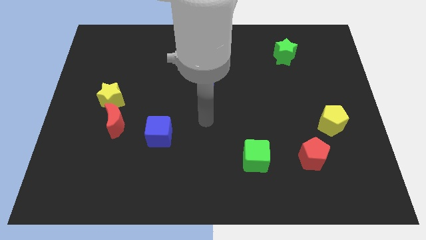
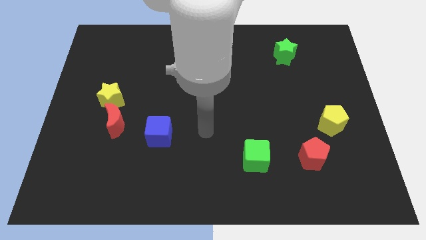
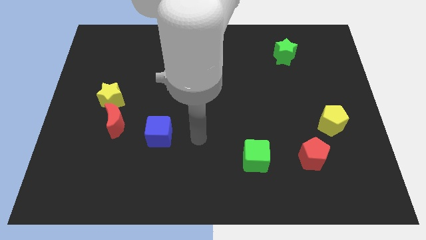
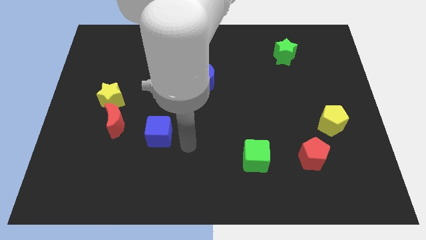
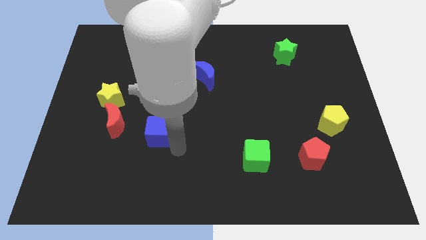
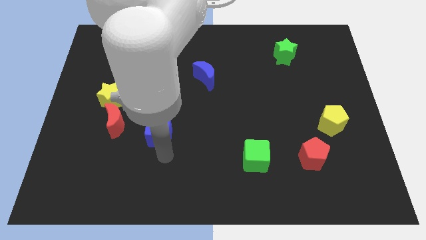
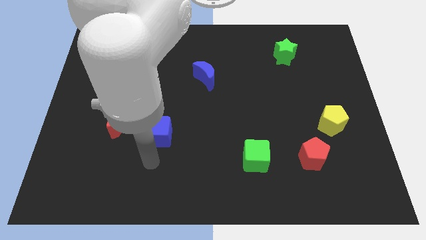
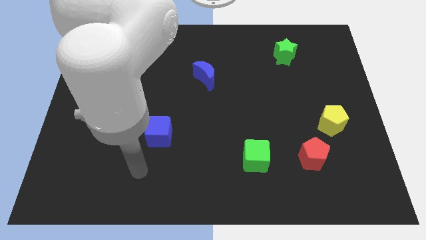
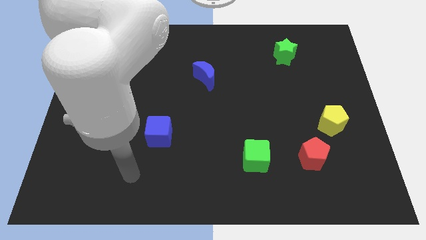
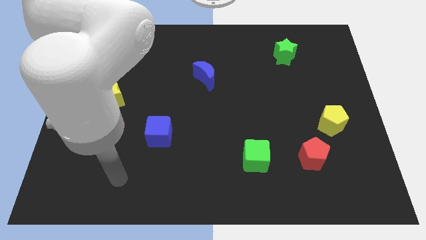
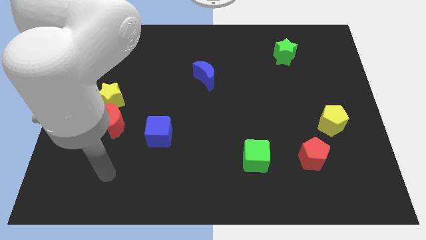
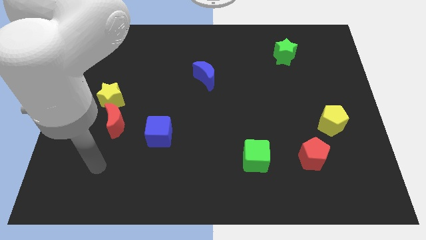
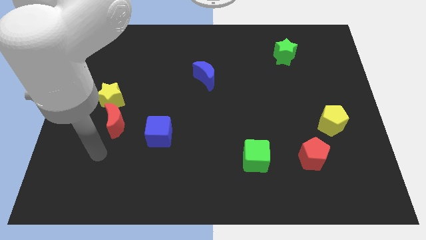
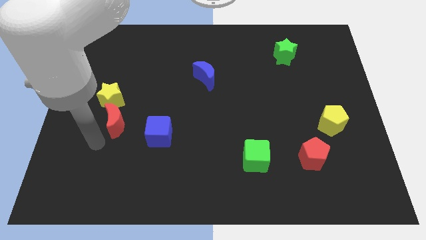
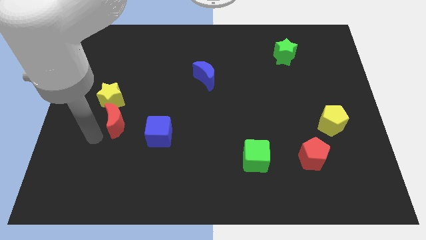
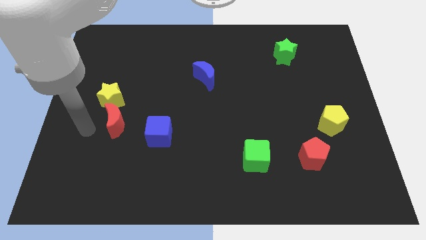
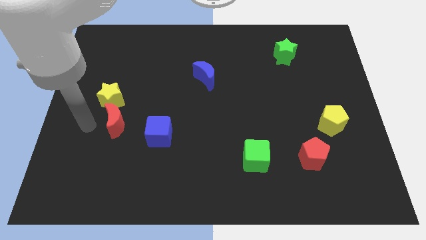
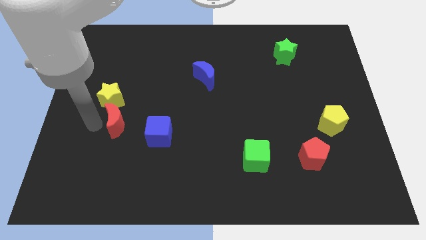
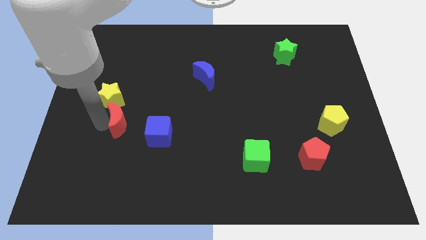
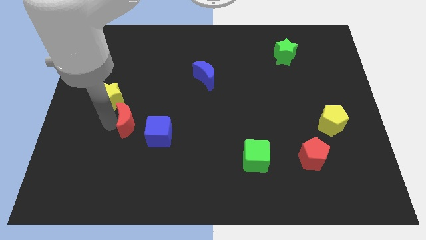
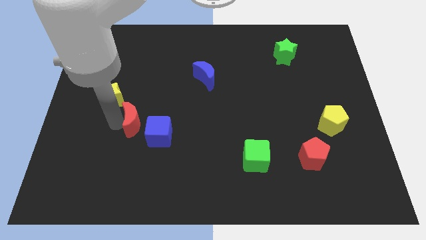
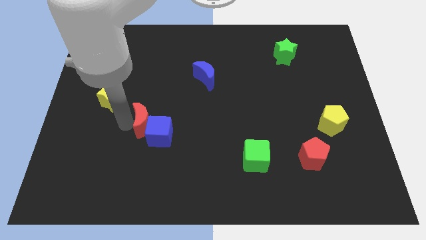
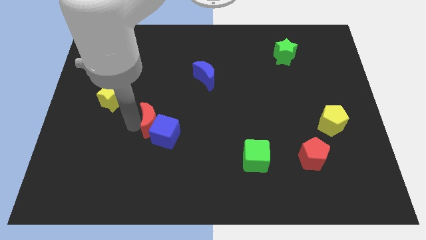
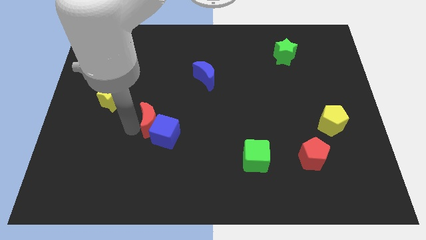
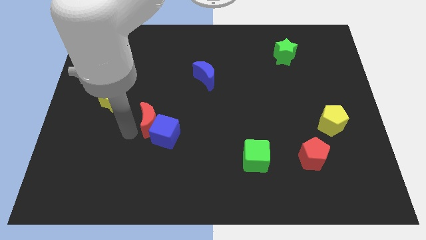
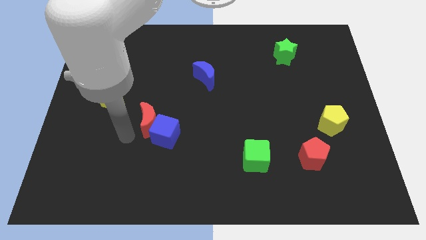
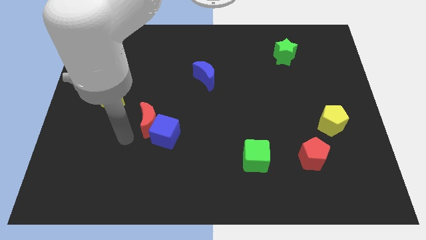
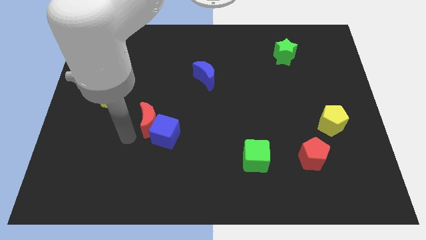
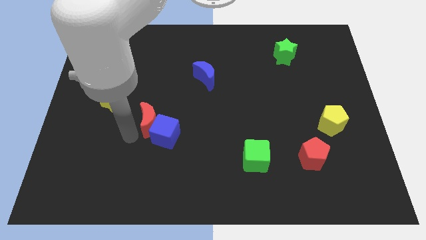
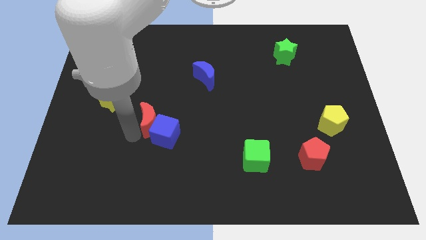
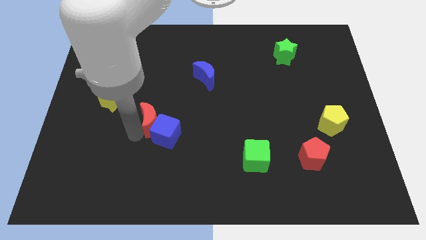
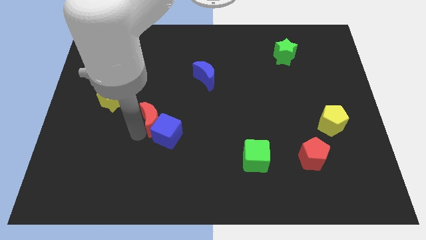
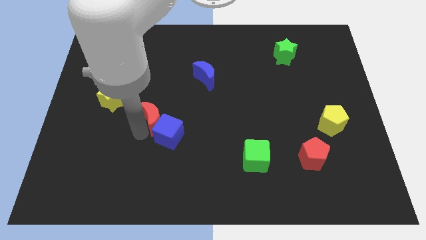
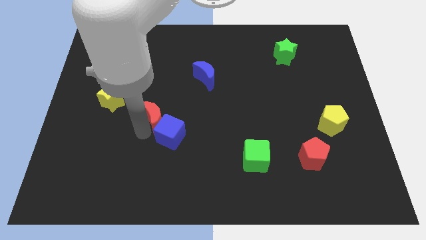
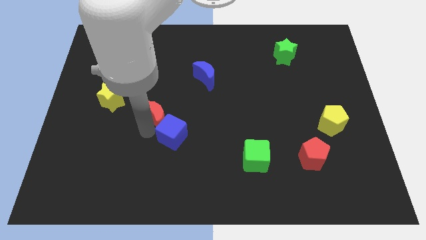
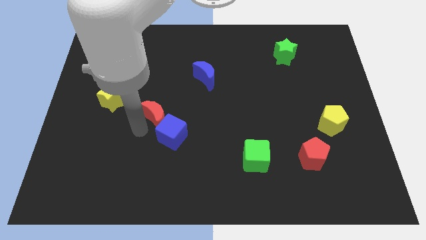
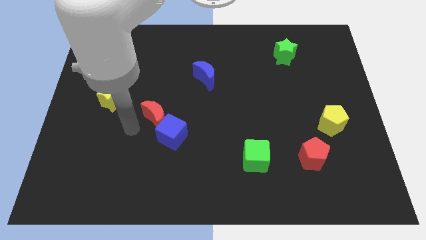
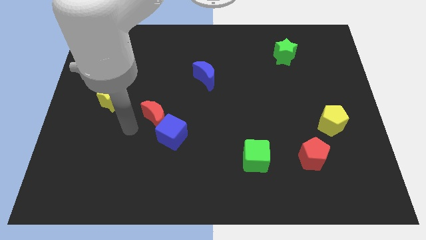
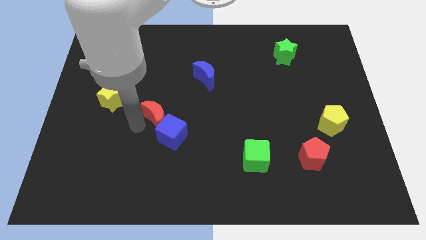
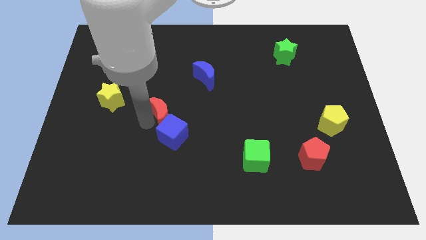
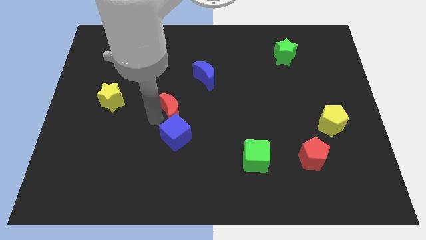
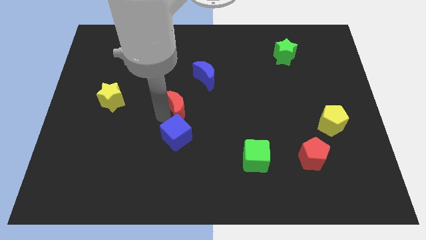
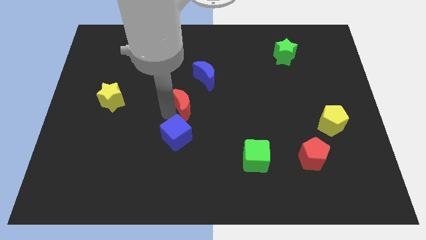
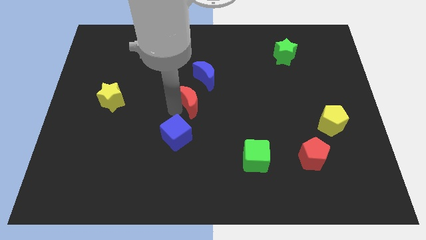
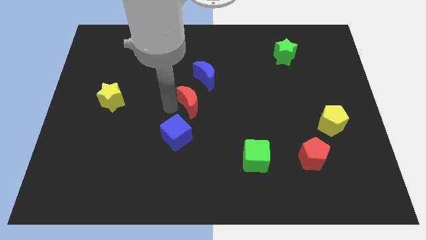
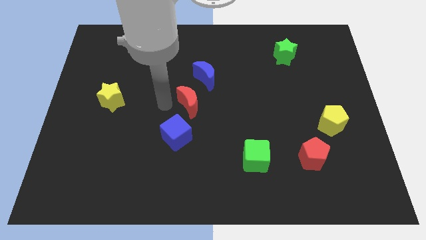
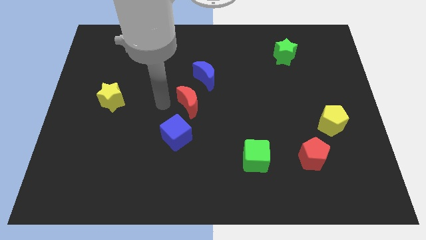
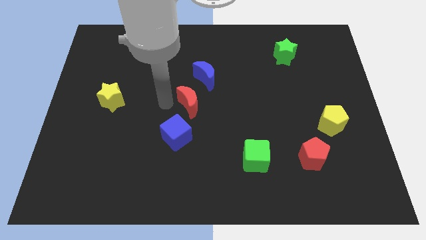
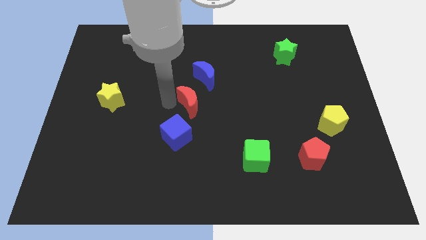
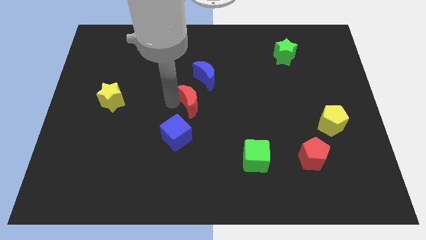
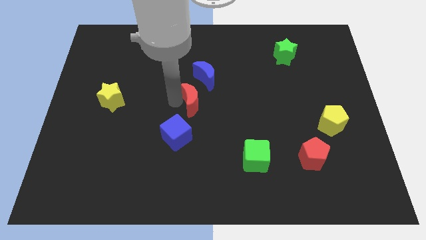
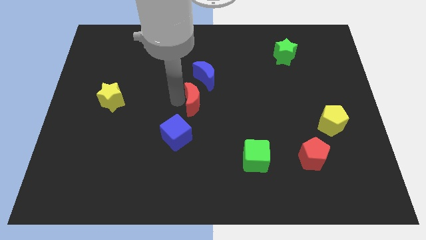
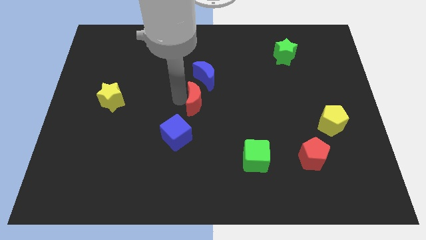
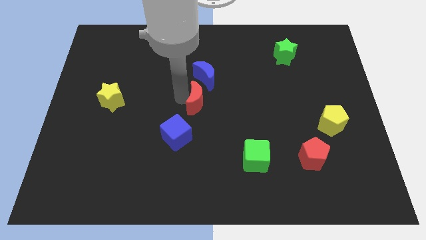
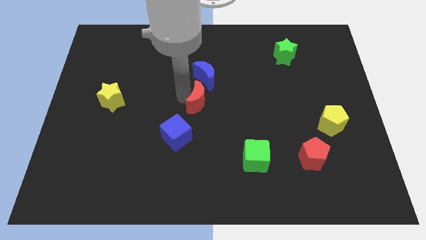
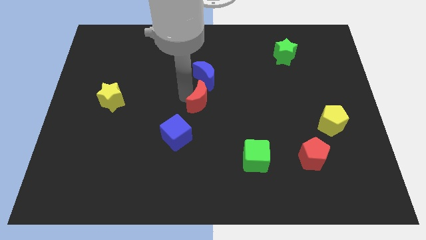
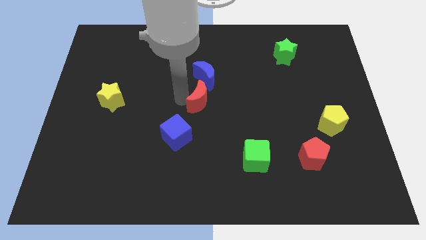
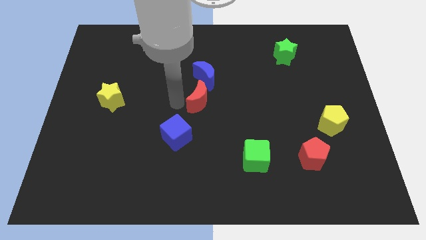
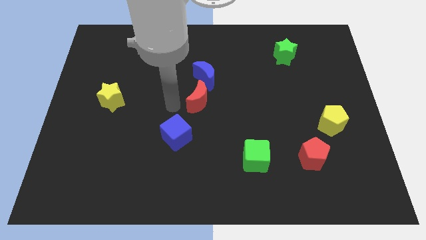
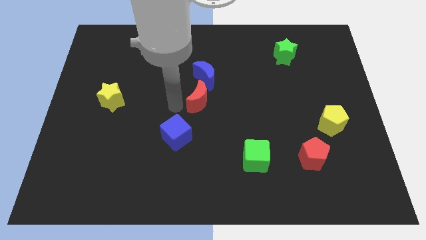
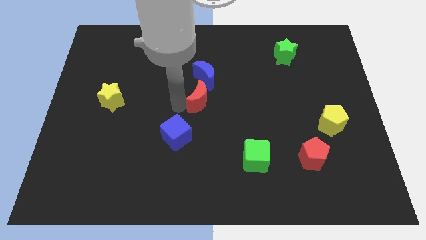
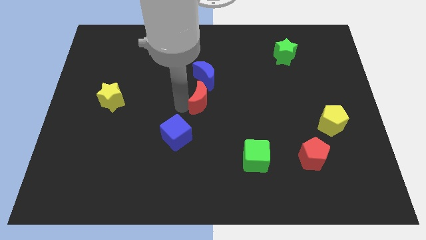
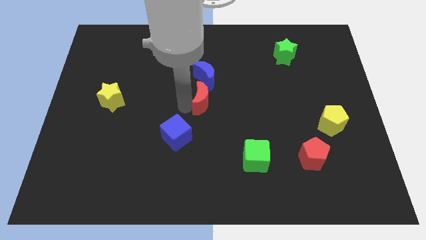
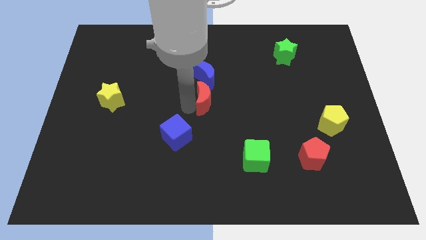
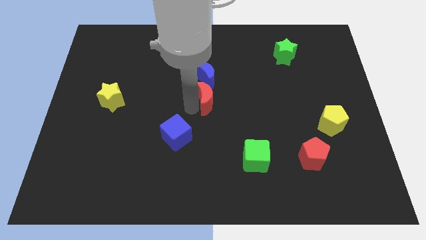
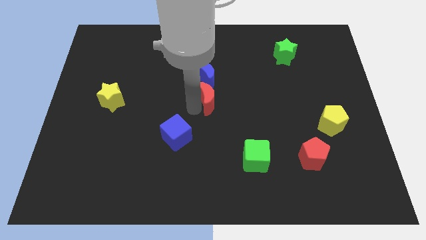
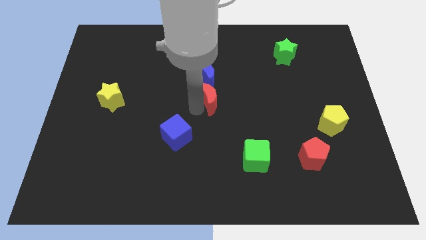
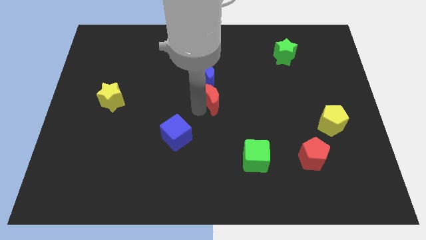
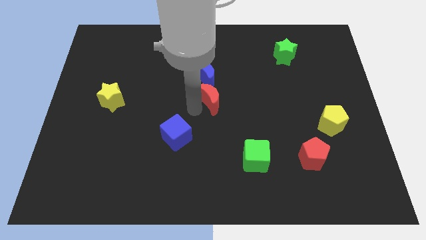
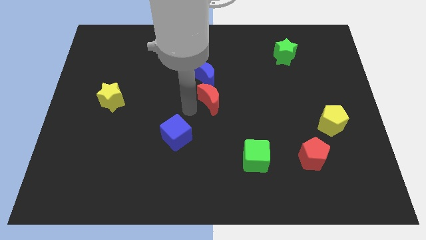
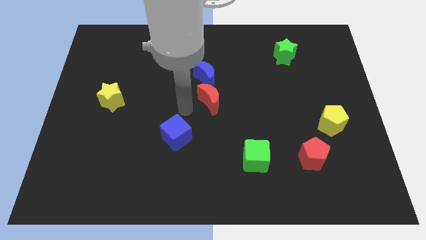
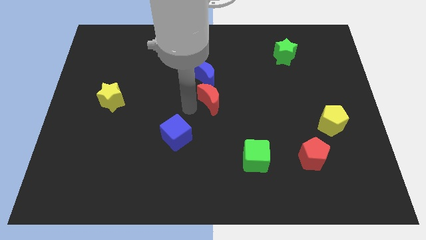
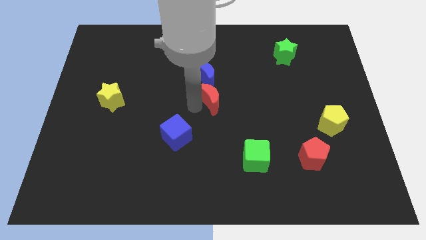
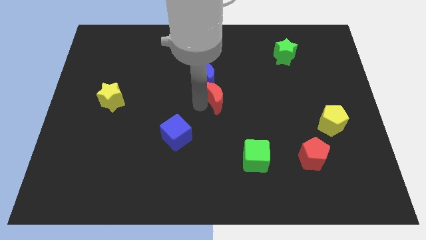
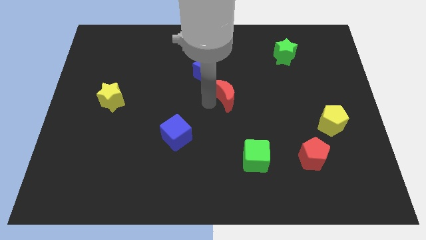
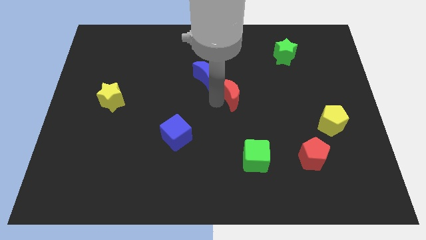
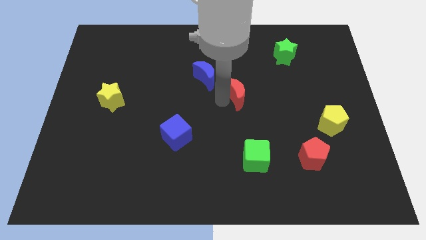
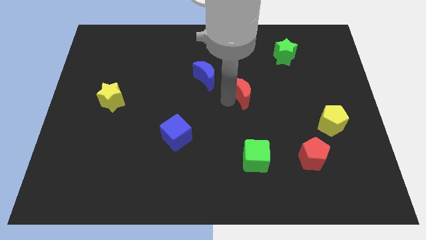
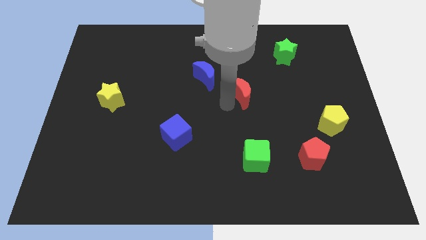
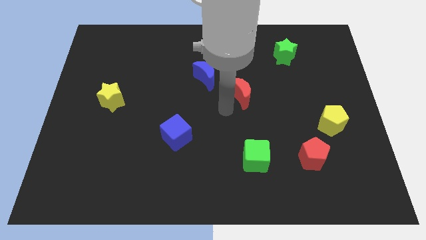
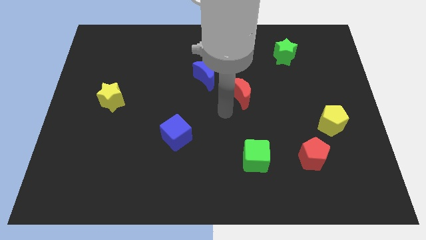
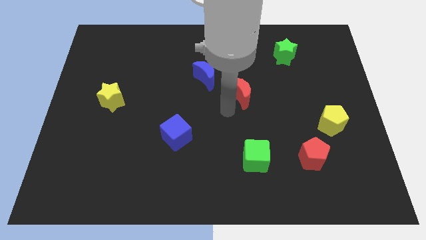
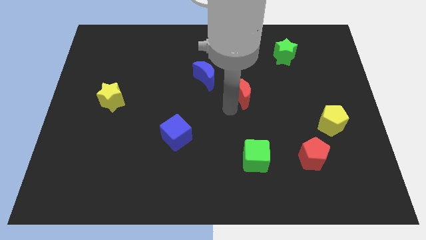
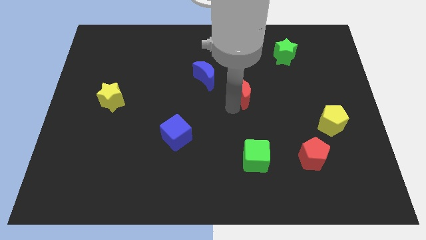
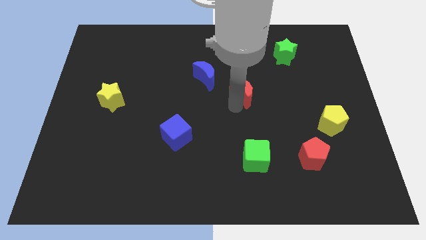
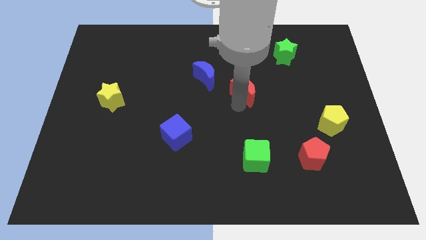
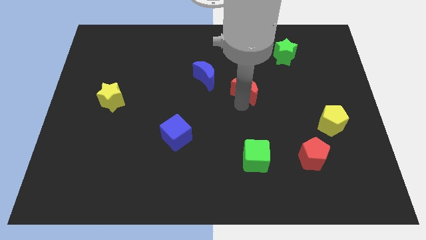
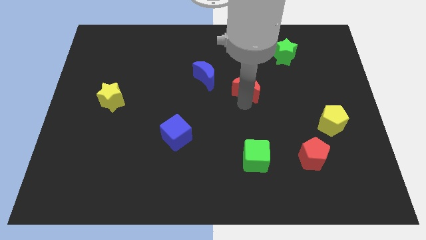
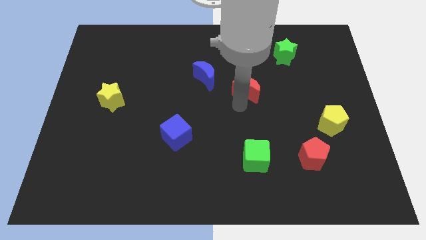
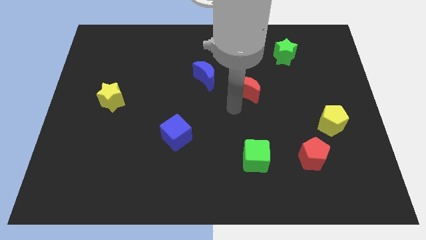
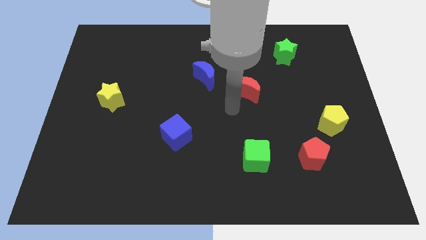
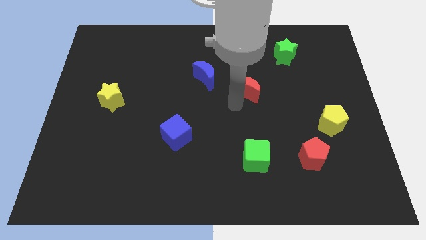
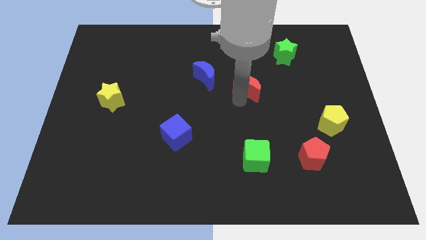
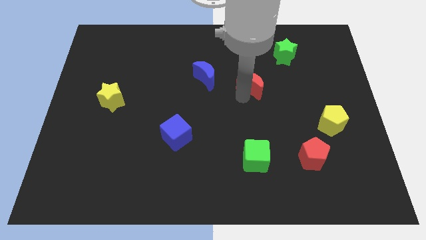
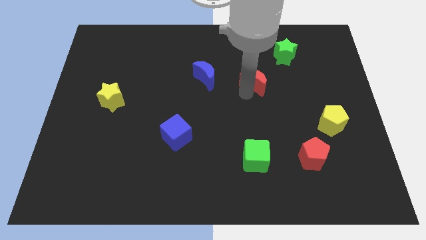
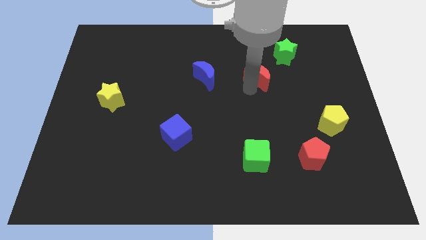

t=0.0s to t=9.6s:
put the red moon to the bottom left side of the green star
